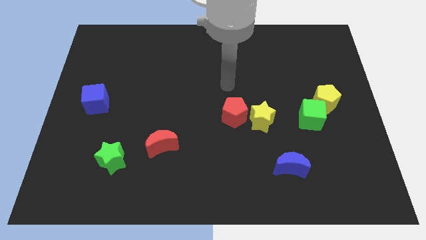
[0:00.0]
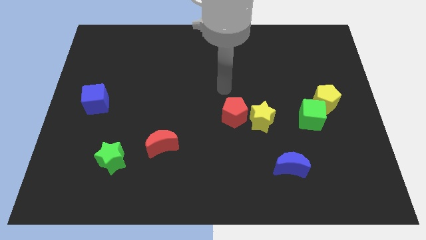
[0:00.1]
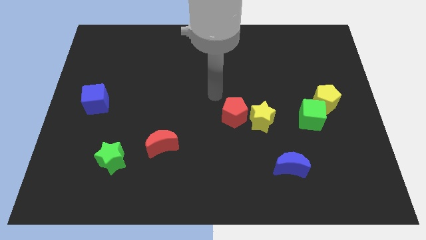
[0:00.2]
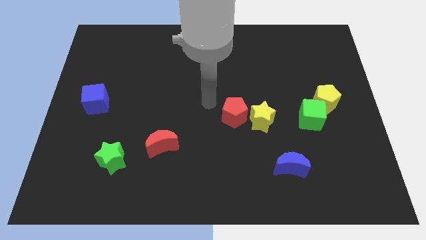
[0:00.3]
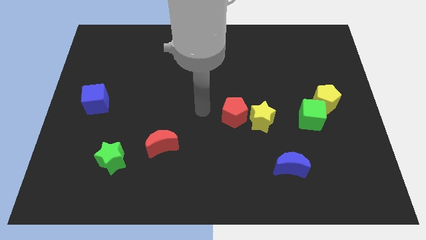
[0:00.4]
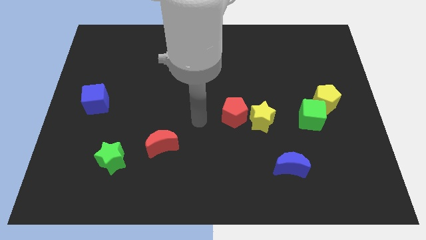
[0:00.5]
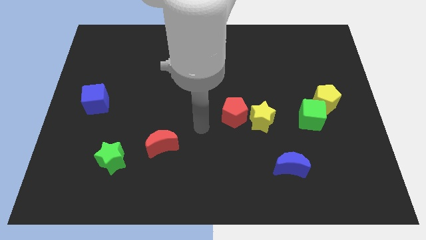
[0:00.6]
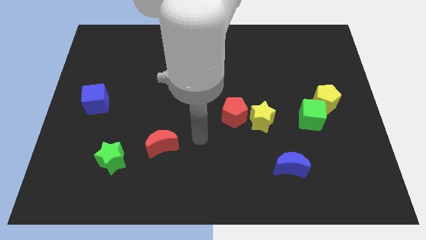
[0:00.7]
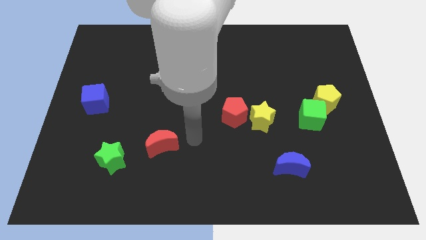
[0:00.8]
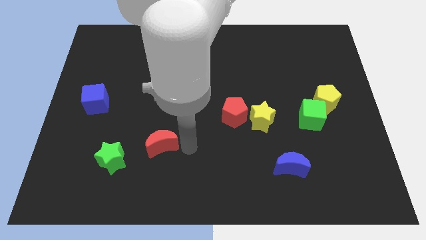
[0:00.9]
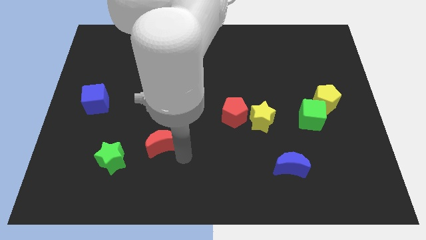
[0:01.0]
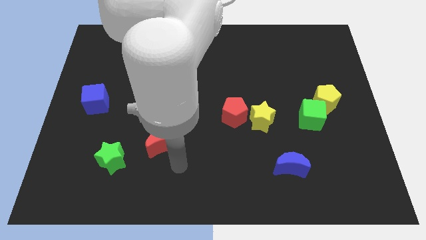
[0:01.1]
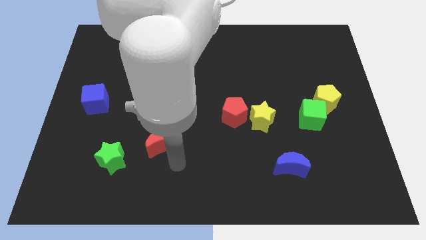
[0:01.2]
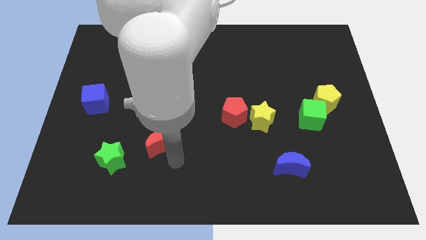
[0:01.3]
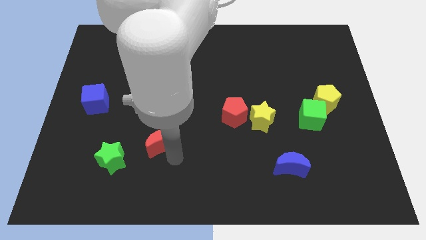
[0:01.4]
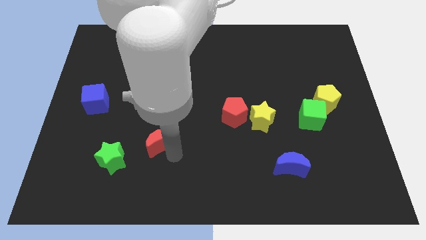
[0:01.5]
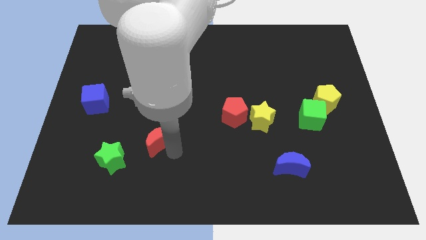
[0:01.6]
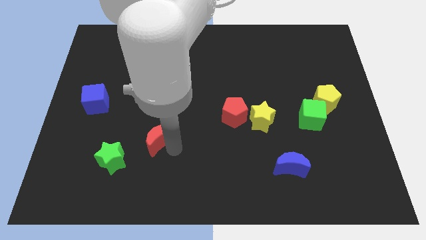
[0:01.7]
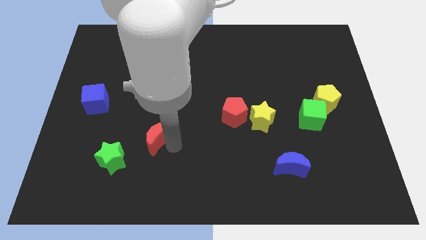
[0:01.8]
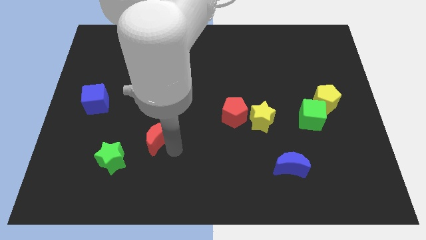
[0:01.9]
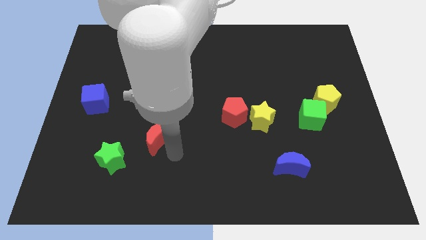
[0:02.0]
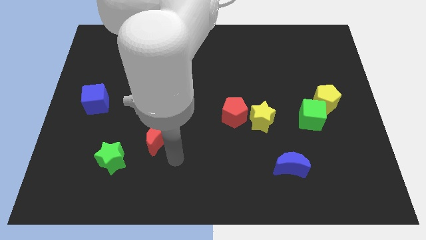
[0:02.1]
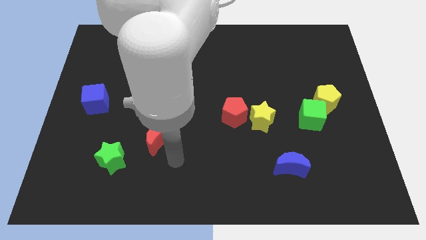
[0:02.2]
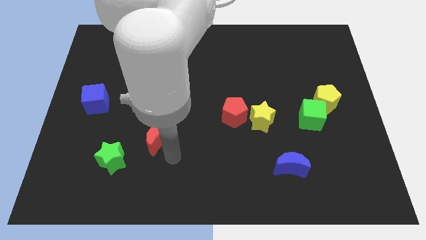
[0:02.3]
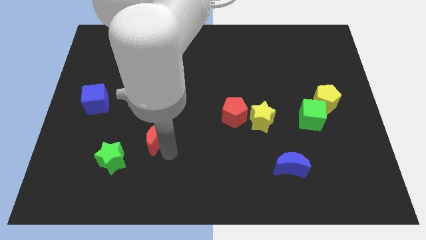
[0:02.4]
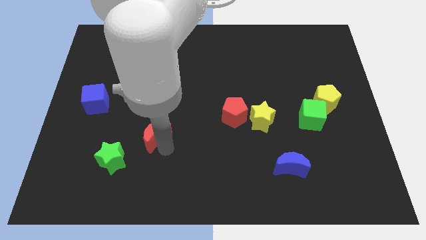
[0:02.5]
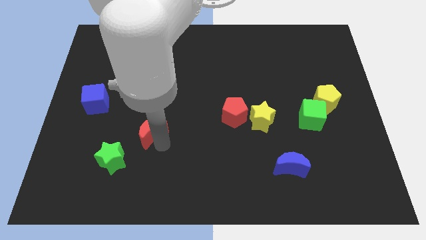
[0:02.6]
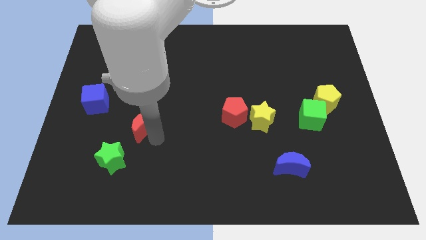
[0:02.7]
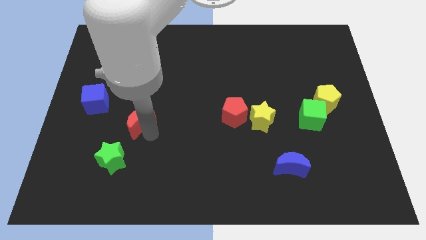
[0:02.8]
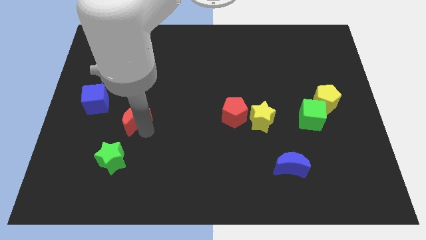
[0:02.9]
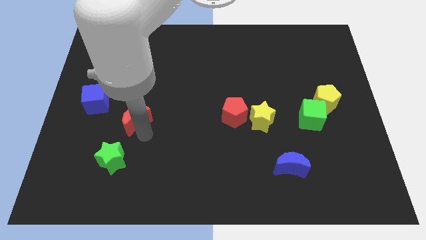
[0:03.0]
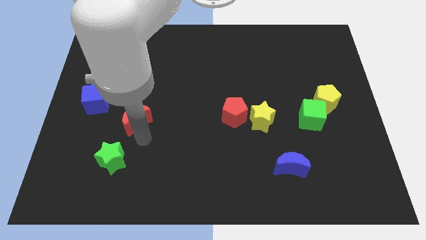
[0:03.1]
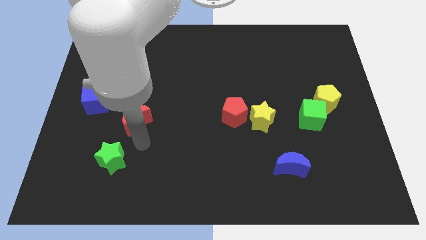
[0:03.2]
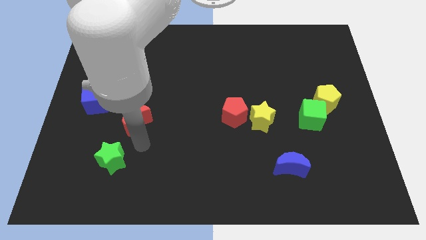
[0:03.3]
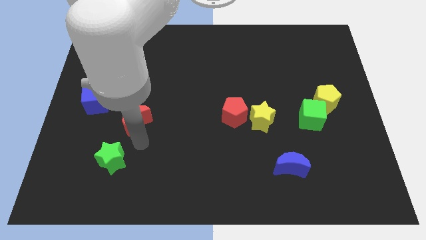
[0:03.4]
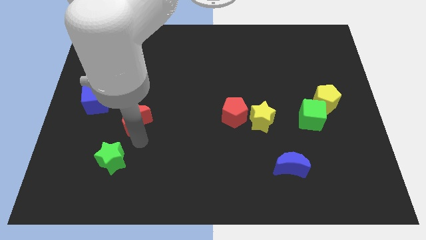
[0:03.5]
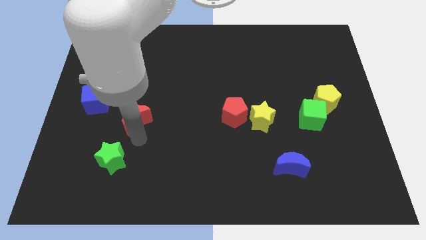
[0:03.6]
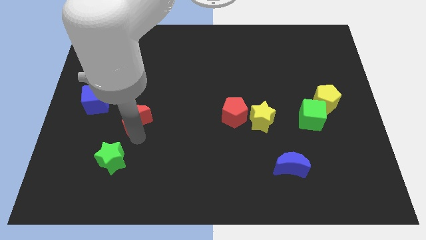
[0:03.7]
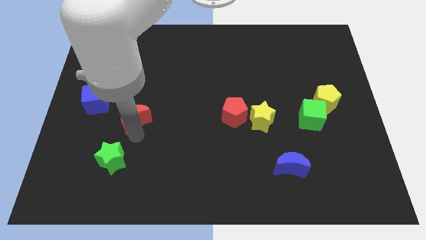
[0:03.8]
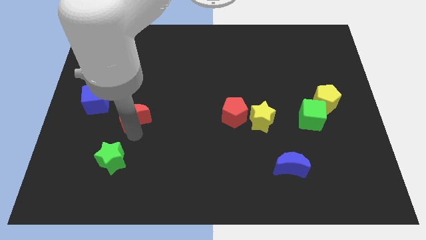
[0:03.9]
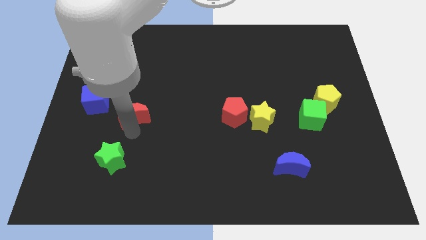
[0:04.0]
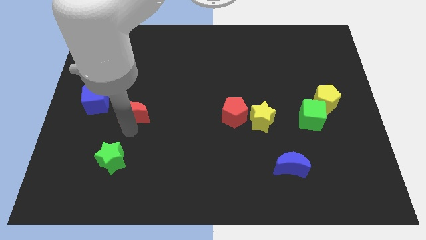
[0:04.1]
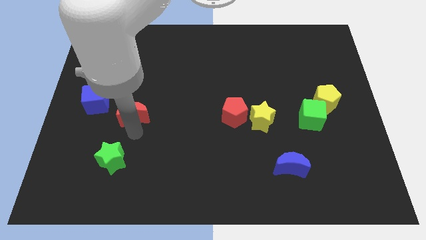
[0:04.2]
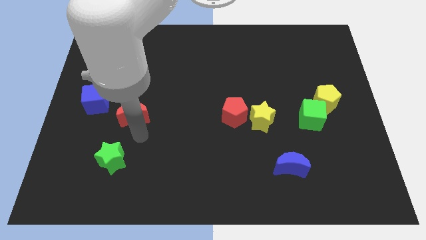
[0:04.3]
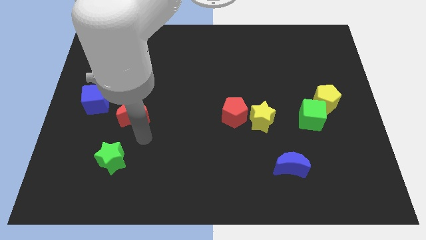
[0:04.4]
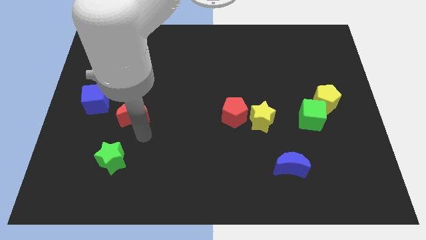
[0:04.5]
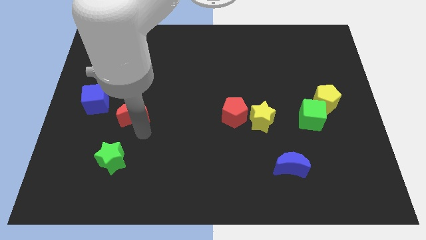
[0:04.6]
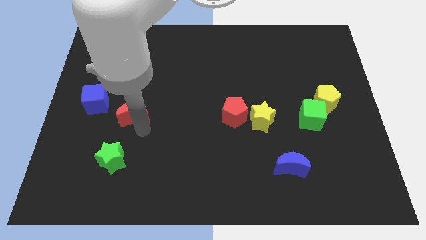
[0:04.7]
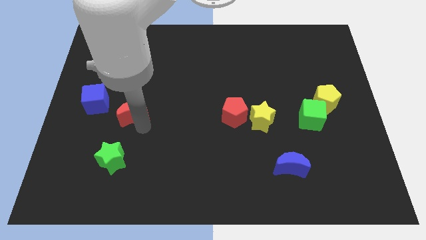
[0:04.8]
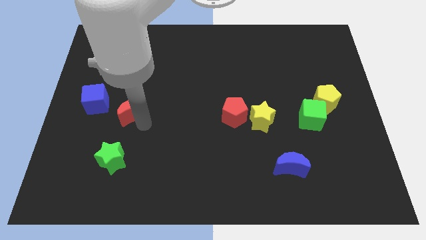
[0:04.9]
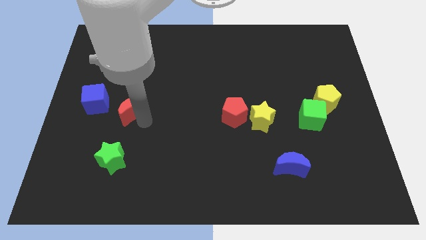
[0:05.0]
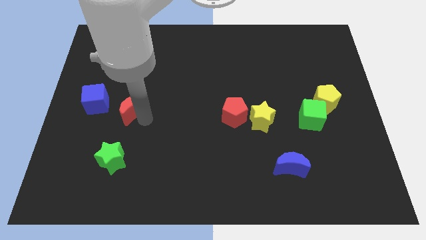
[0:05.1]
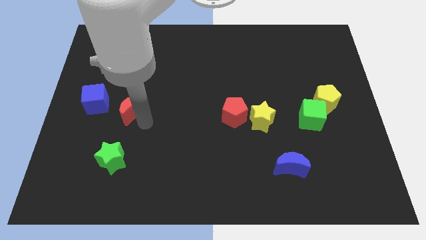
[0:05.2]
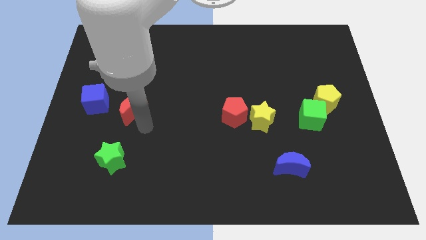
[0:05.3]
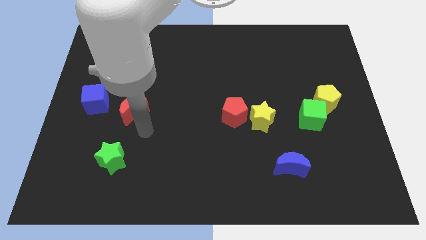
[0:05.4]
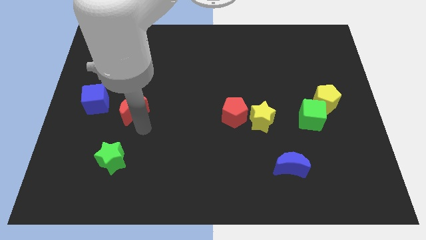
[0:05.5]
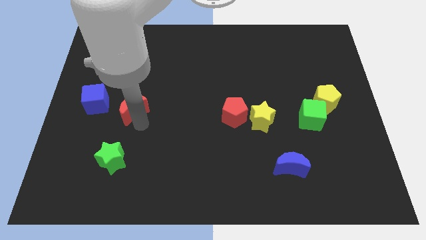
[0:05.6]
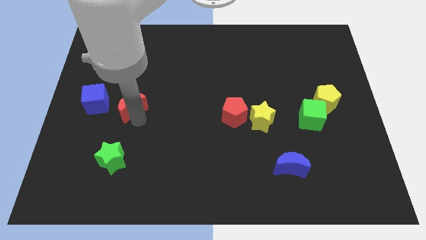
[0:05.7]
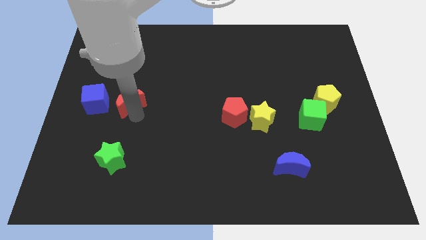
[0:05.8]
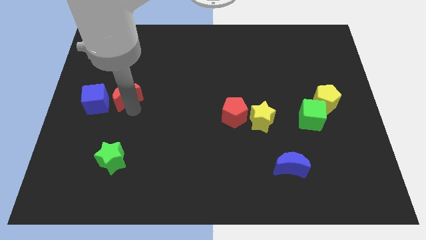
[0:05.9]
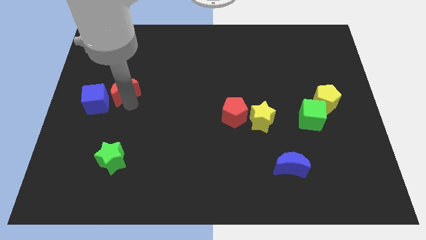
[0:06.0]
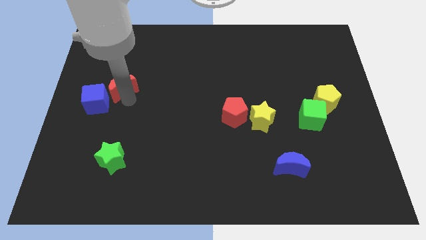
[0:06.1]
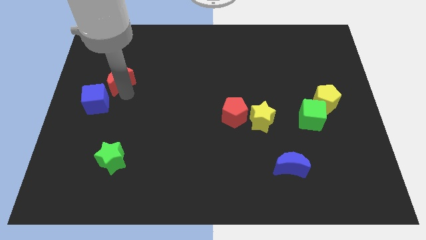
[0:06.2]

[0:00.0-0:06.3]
move the red moon to the top side of the blue cube

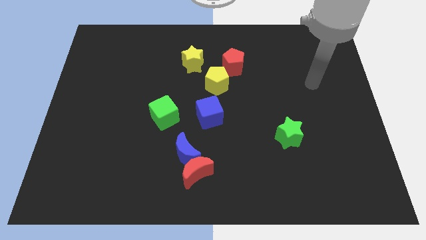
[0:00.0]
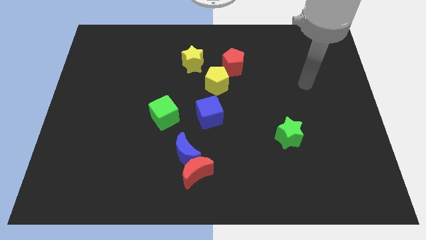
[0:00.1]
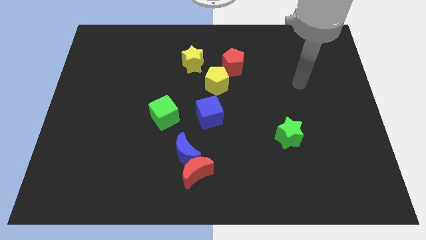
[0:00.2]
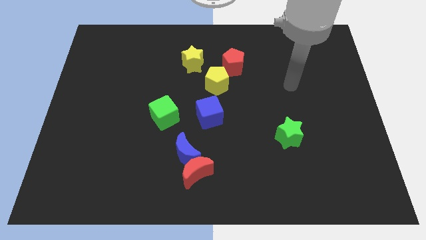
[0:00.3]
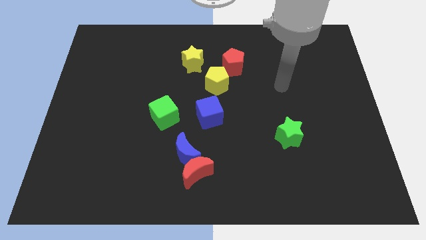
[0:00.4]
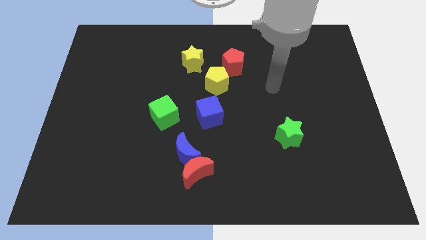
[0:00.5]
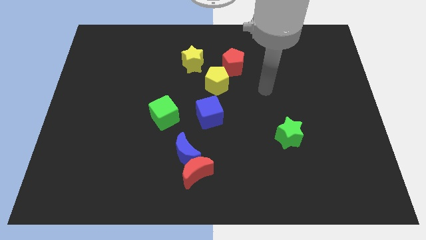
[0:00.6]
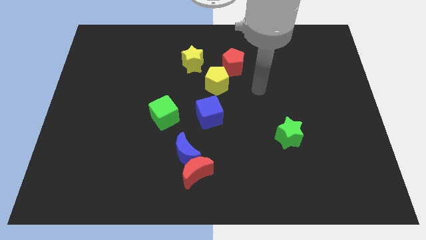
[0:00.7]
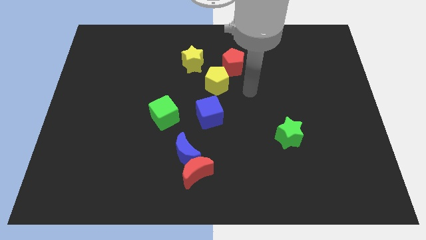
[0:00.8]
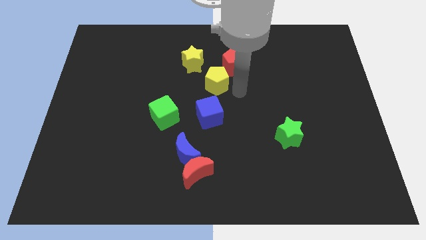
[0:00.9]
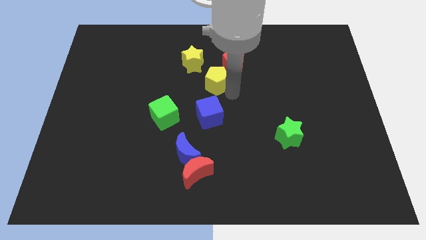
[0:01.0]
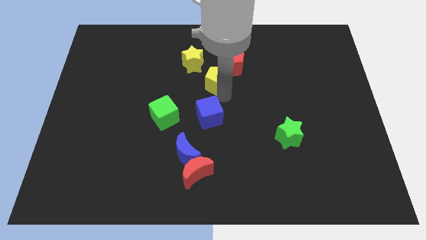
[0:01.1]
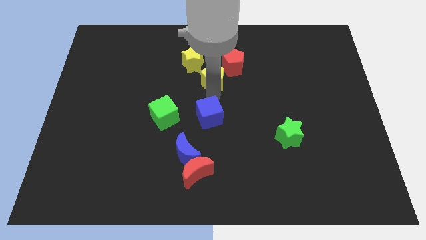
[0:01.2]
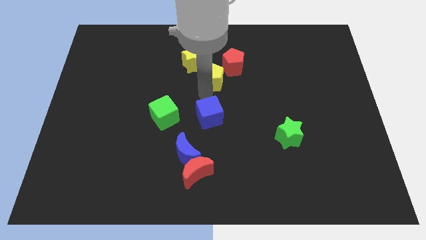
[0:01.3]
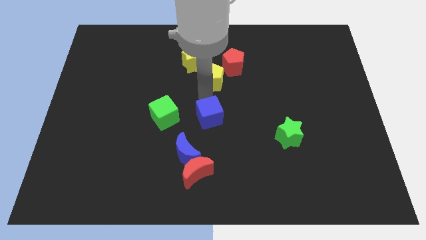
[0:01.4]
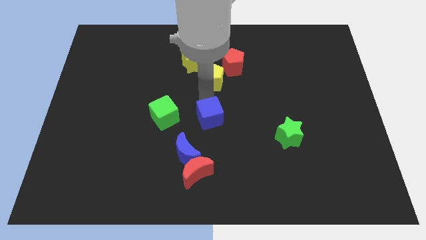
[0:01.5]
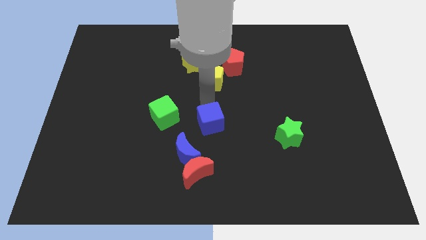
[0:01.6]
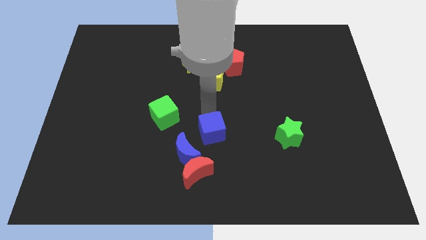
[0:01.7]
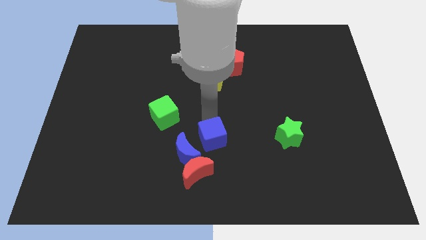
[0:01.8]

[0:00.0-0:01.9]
push the blue cube diagonally up and to the right of the red moon
